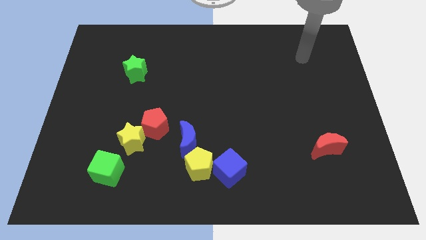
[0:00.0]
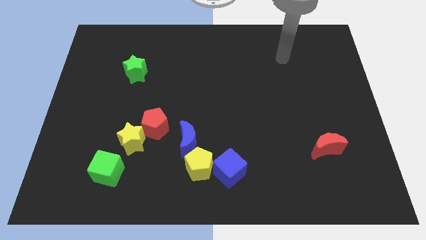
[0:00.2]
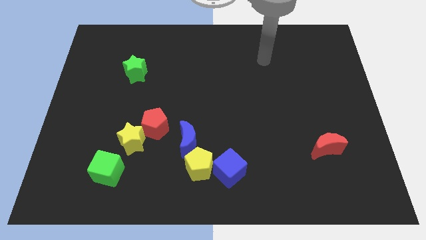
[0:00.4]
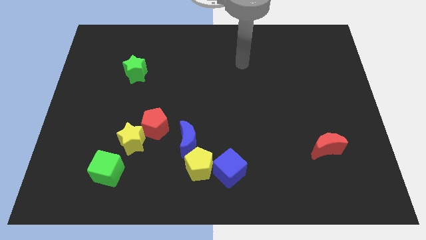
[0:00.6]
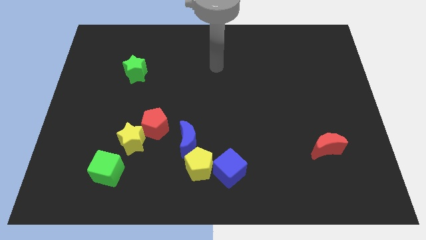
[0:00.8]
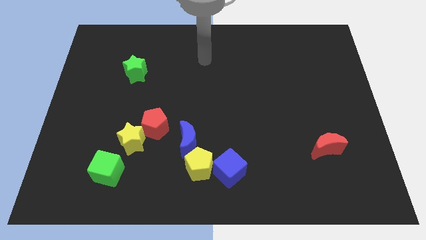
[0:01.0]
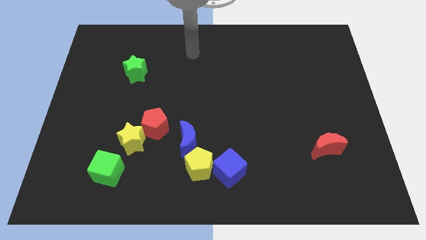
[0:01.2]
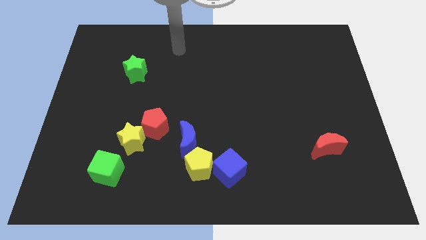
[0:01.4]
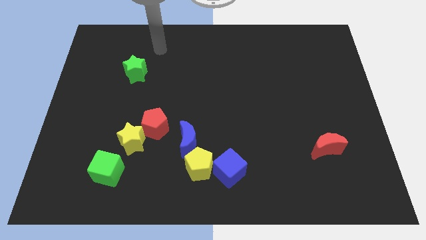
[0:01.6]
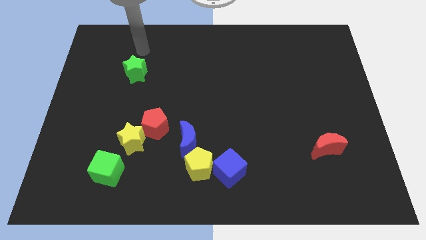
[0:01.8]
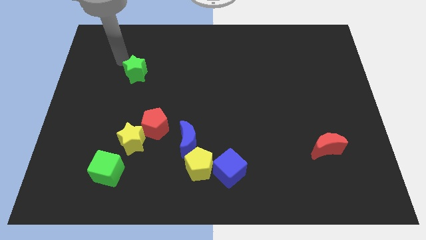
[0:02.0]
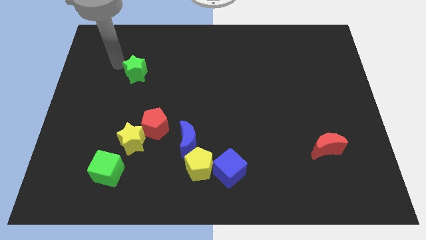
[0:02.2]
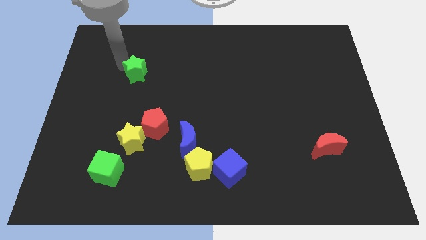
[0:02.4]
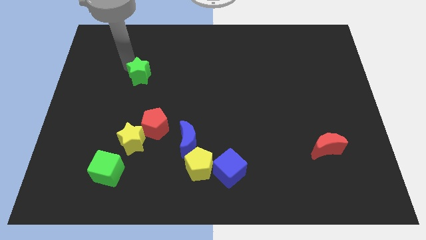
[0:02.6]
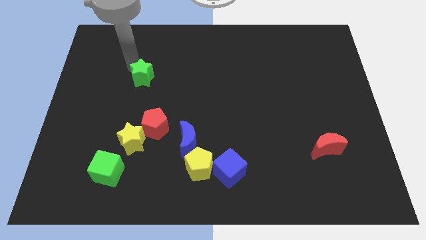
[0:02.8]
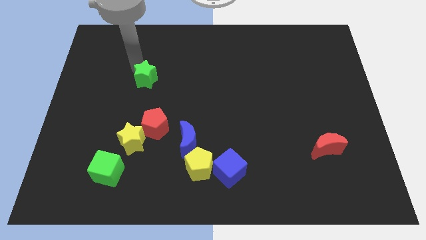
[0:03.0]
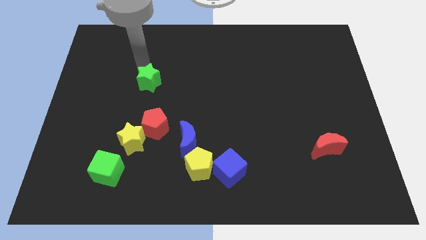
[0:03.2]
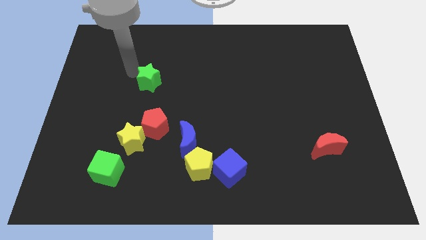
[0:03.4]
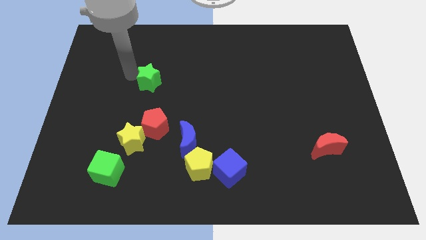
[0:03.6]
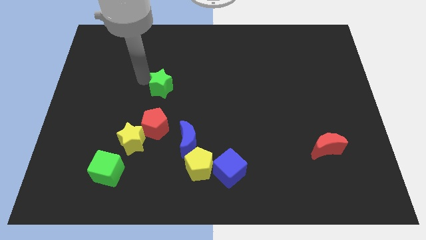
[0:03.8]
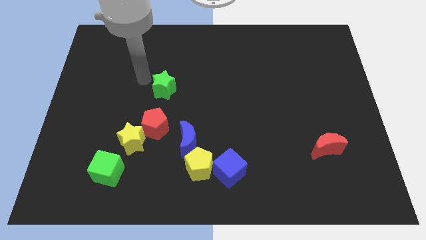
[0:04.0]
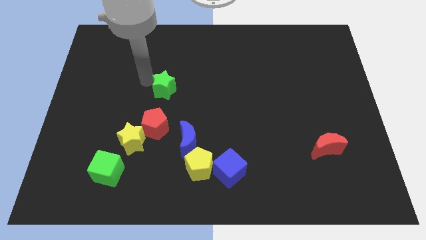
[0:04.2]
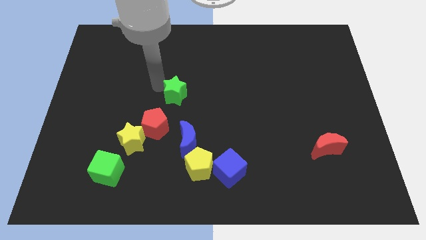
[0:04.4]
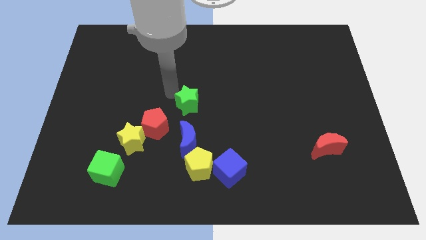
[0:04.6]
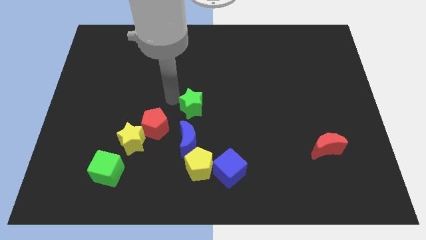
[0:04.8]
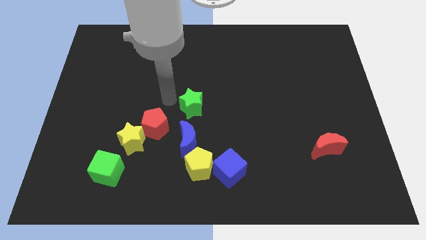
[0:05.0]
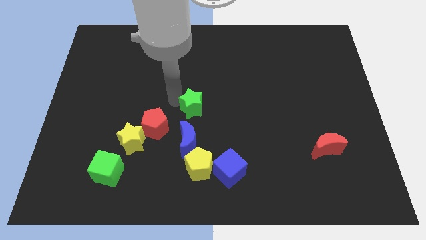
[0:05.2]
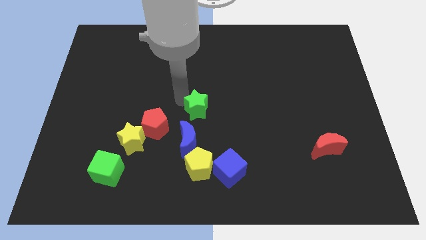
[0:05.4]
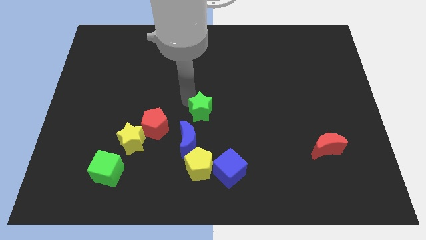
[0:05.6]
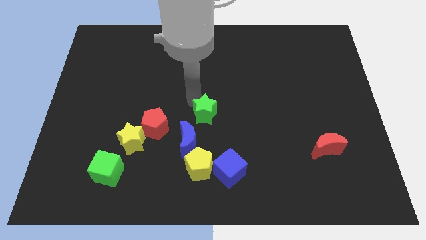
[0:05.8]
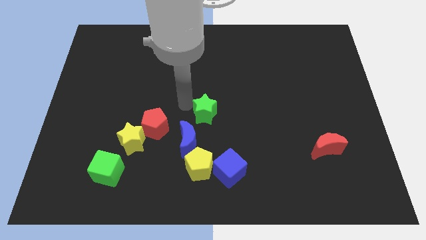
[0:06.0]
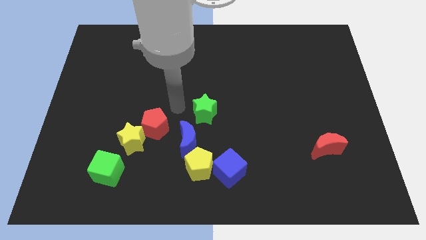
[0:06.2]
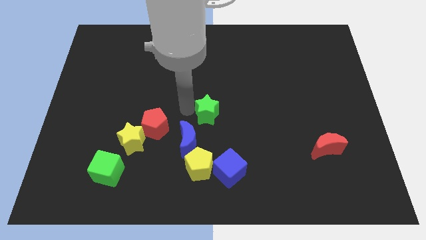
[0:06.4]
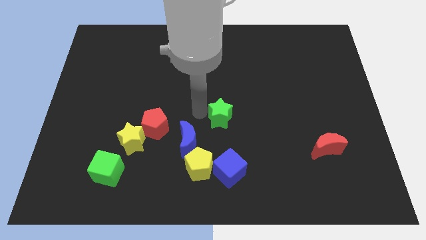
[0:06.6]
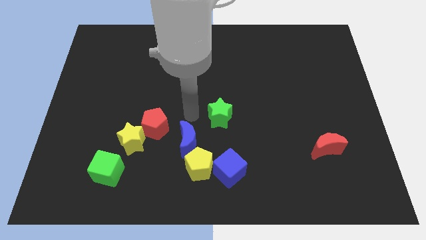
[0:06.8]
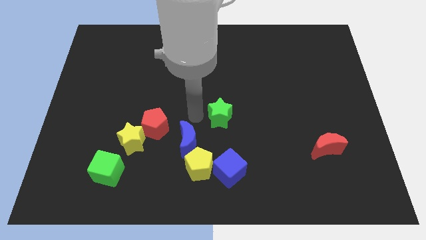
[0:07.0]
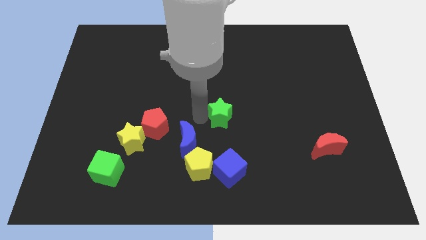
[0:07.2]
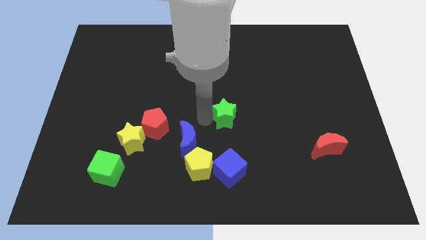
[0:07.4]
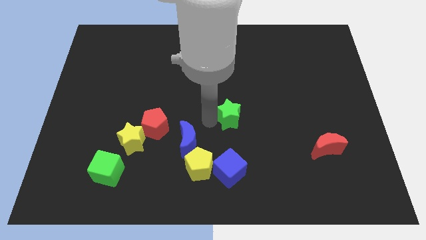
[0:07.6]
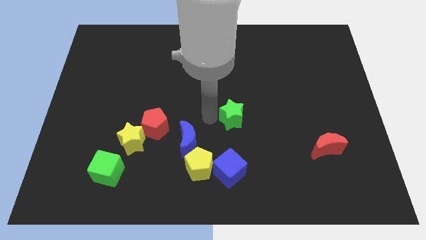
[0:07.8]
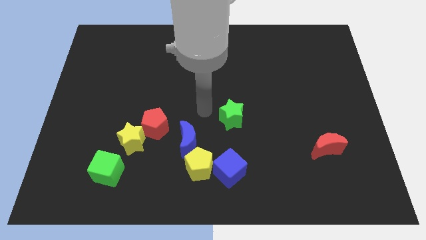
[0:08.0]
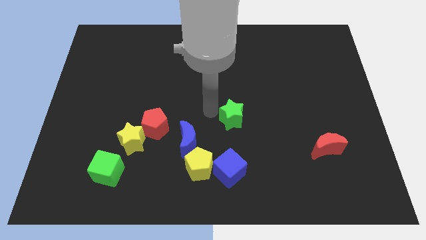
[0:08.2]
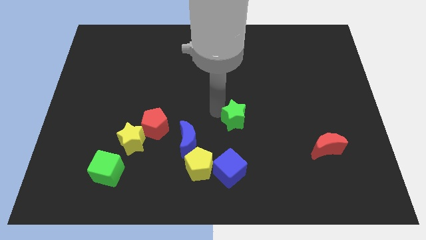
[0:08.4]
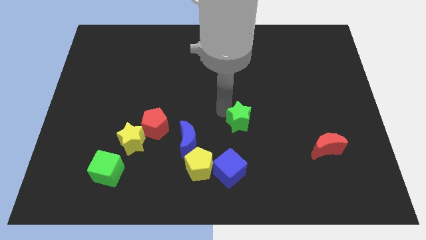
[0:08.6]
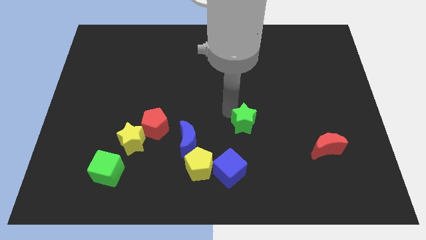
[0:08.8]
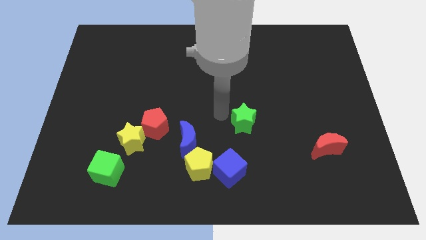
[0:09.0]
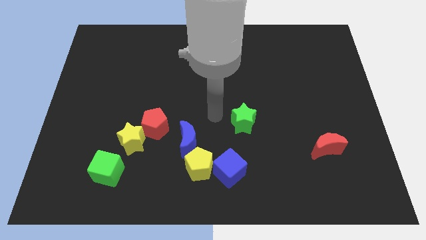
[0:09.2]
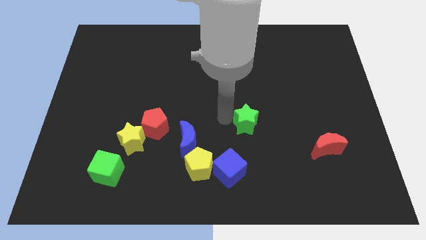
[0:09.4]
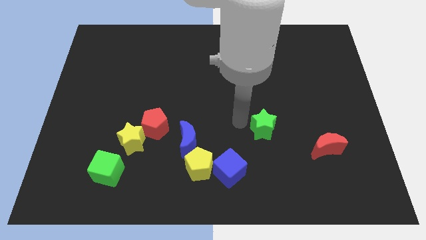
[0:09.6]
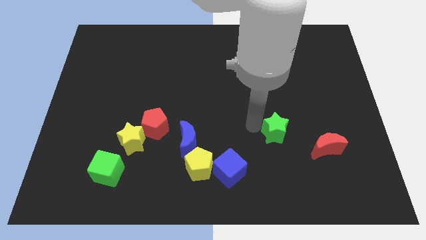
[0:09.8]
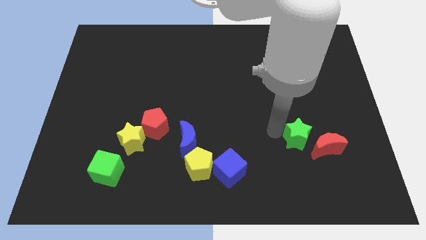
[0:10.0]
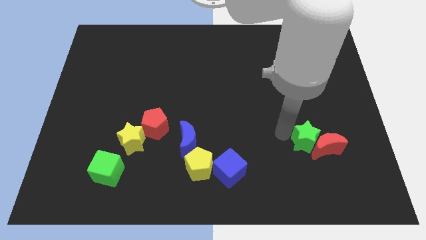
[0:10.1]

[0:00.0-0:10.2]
push the green star close to the red moon

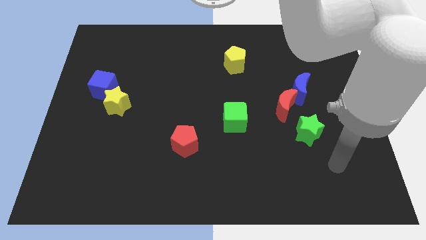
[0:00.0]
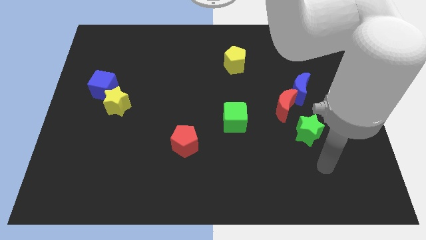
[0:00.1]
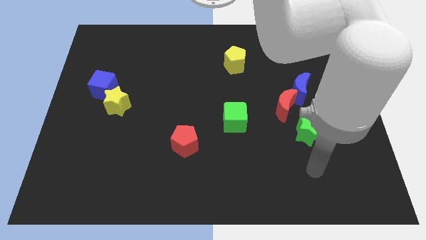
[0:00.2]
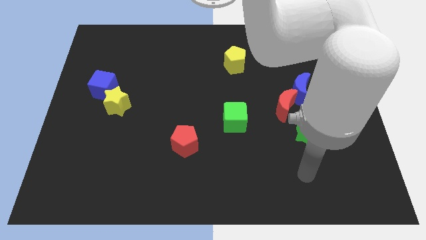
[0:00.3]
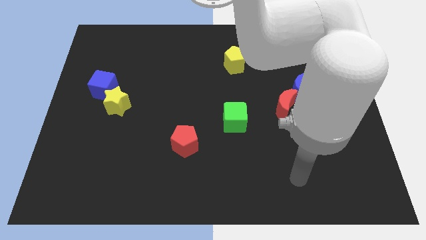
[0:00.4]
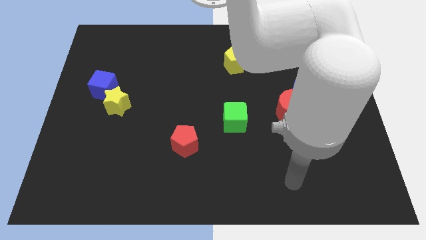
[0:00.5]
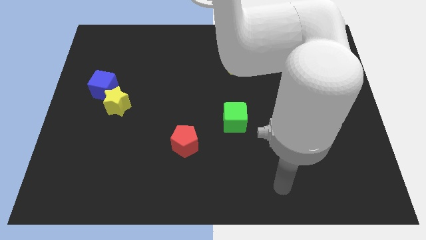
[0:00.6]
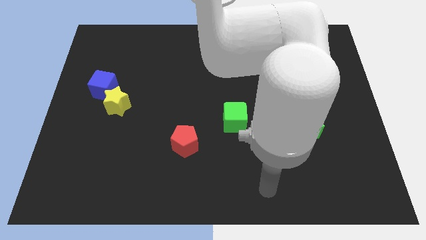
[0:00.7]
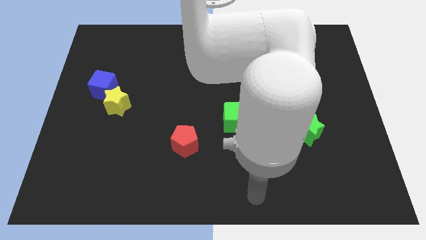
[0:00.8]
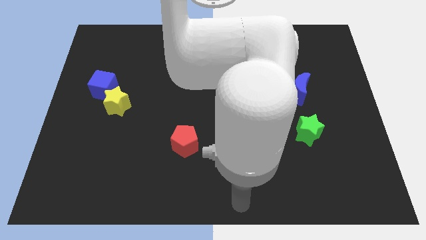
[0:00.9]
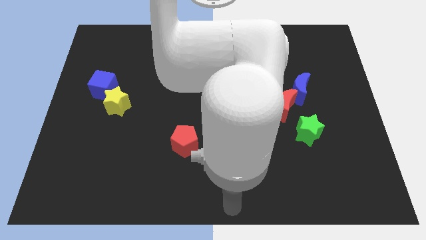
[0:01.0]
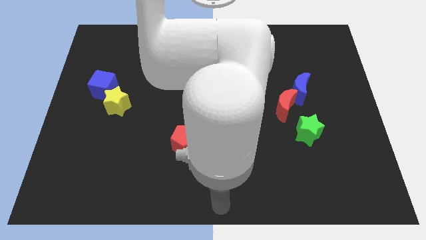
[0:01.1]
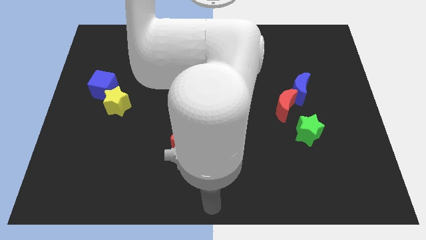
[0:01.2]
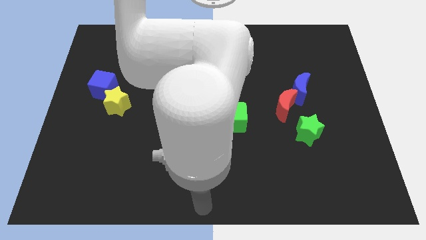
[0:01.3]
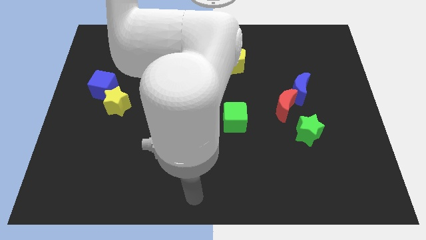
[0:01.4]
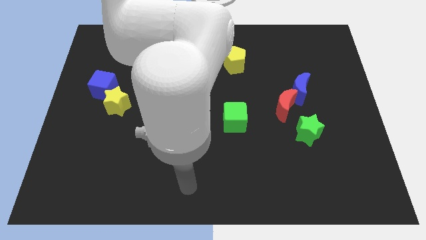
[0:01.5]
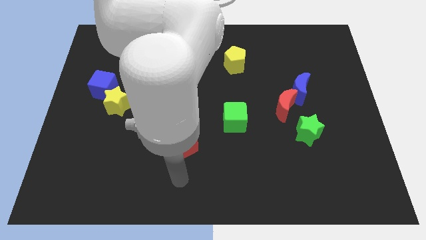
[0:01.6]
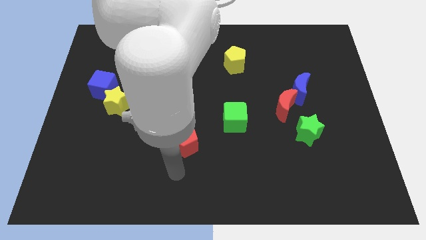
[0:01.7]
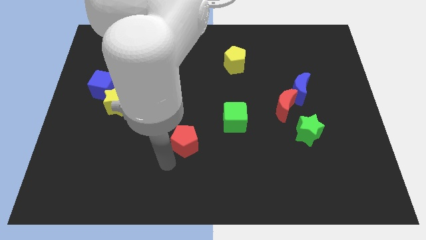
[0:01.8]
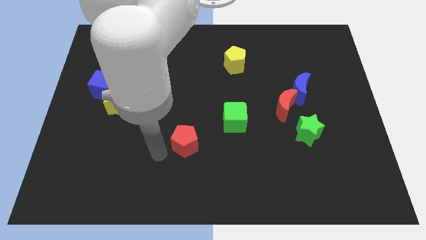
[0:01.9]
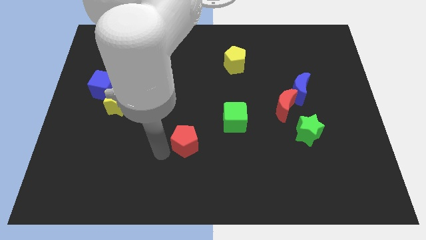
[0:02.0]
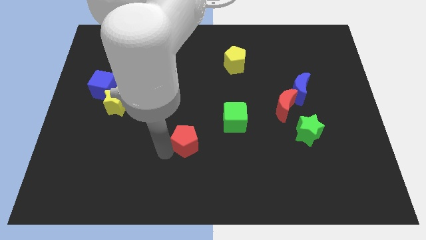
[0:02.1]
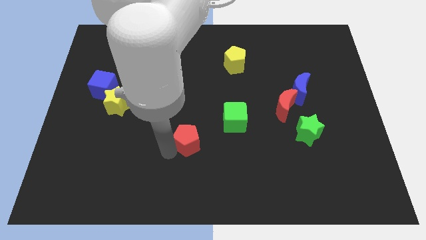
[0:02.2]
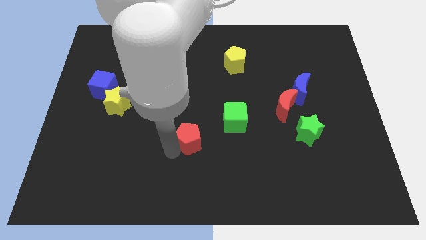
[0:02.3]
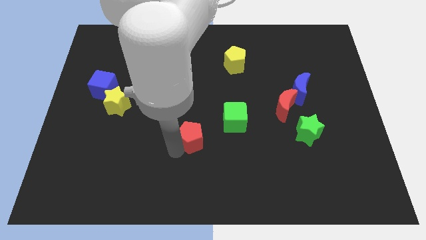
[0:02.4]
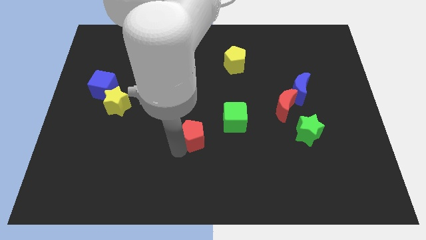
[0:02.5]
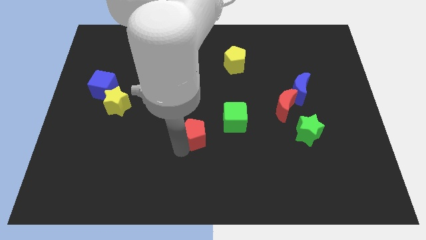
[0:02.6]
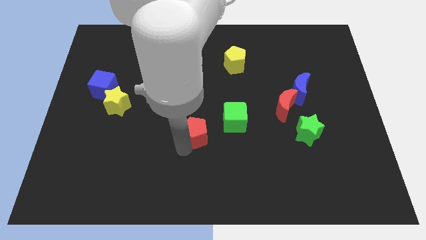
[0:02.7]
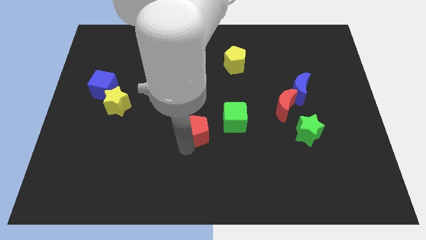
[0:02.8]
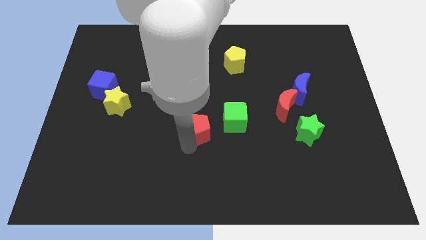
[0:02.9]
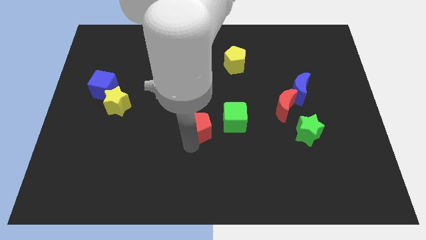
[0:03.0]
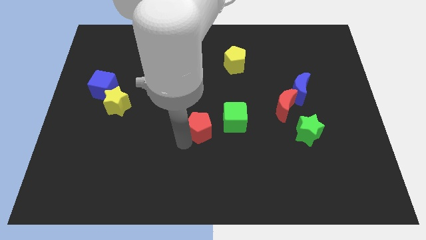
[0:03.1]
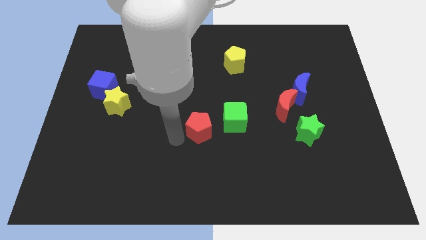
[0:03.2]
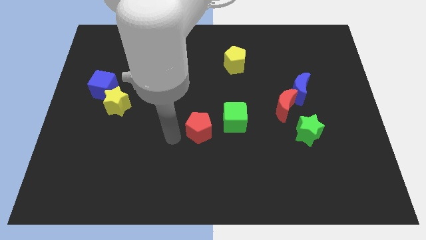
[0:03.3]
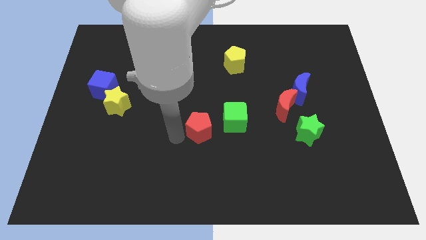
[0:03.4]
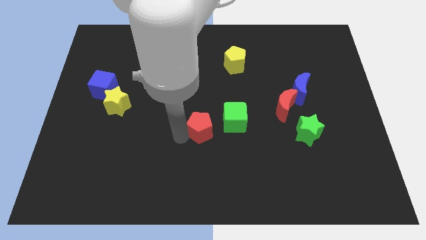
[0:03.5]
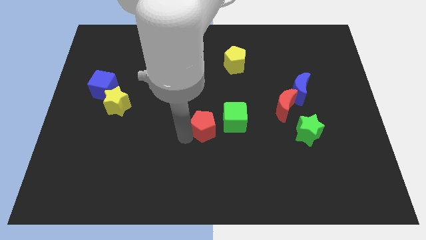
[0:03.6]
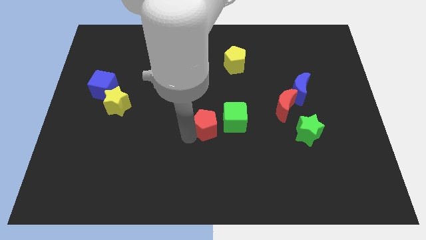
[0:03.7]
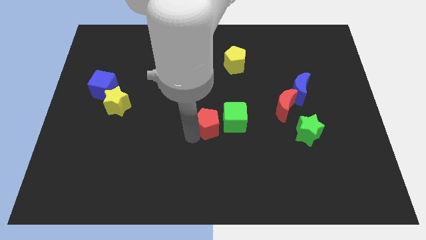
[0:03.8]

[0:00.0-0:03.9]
move the red pentagon close to the green cube
